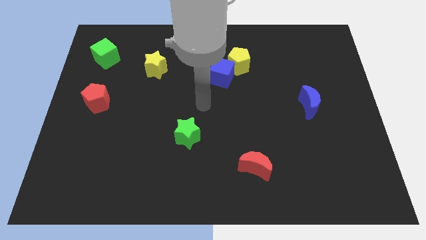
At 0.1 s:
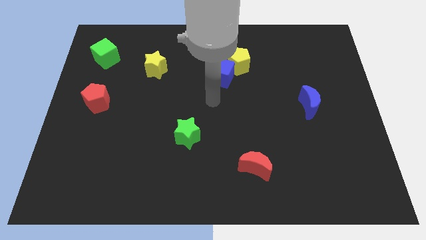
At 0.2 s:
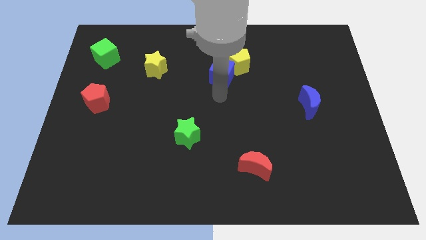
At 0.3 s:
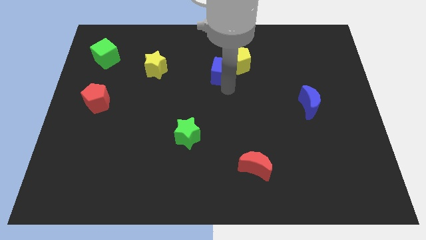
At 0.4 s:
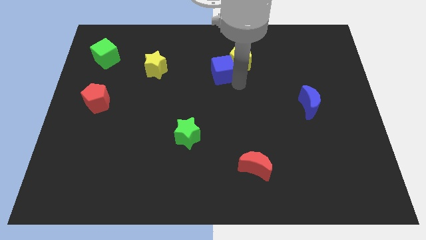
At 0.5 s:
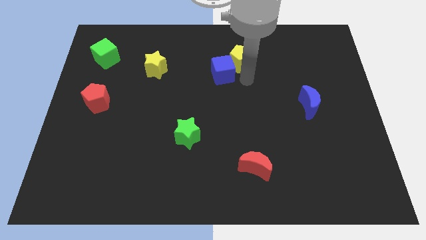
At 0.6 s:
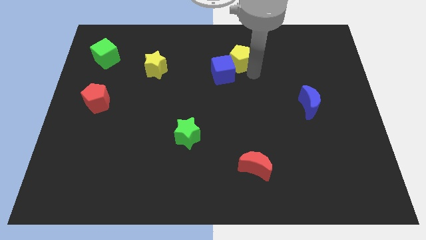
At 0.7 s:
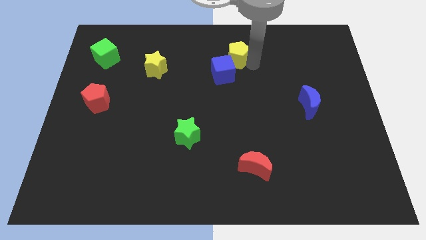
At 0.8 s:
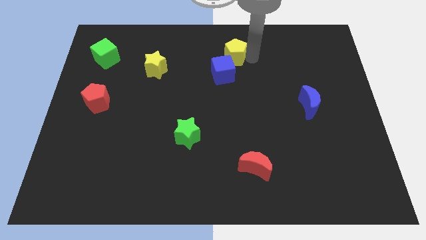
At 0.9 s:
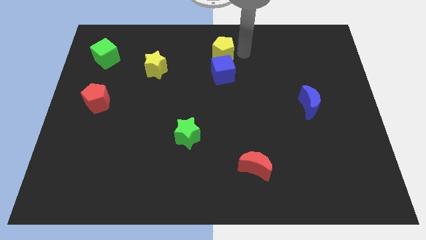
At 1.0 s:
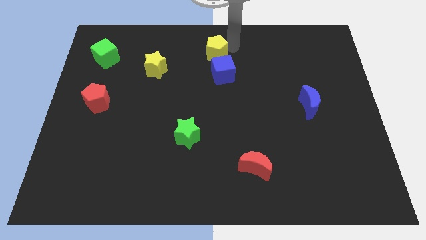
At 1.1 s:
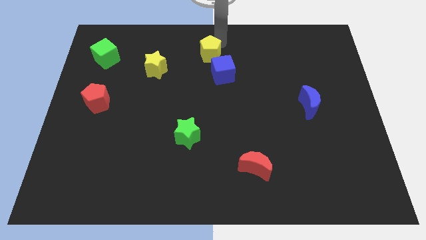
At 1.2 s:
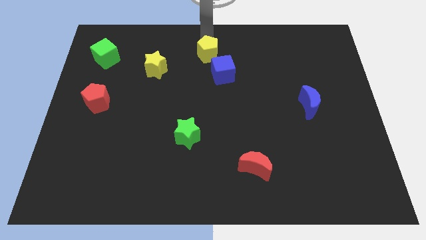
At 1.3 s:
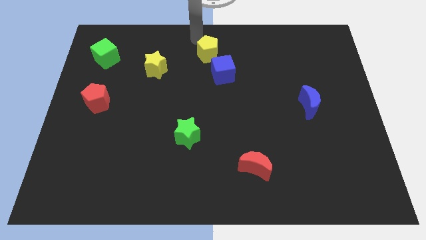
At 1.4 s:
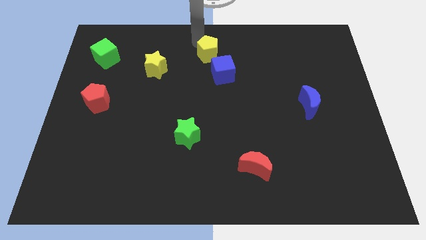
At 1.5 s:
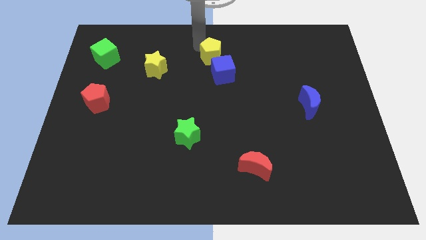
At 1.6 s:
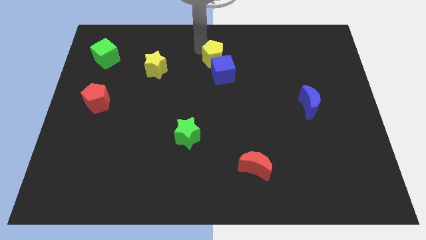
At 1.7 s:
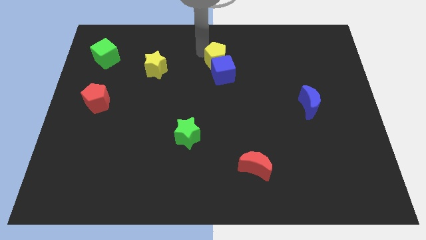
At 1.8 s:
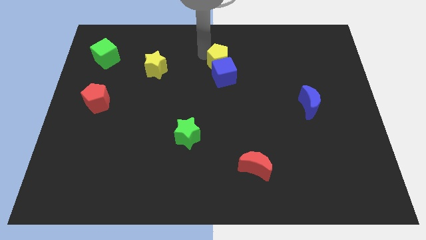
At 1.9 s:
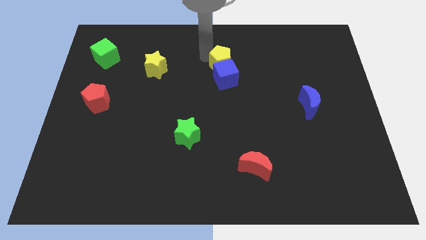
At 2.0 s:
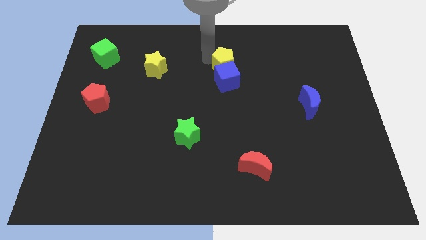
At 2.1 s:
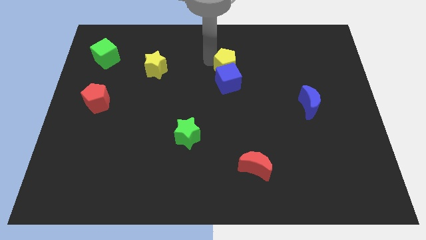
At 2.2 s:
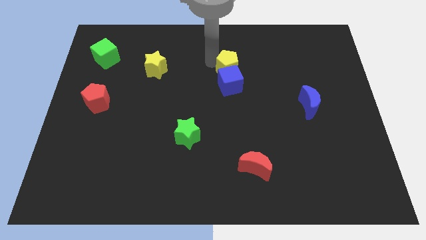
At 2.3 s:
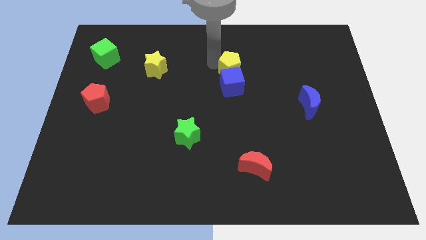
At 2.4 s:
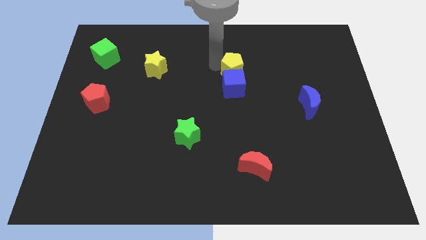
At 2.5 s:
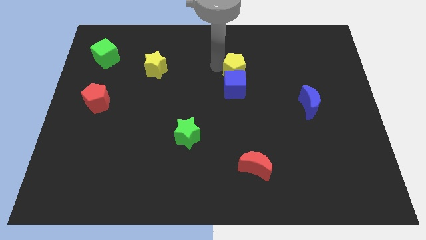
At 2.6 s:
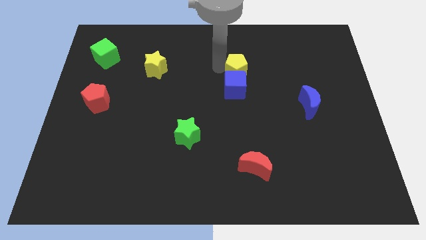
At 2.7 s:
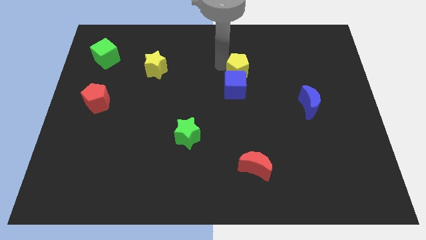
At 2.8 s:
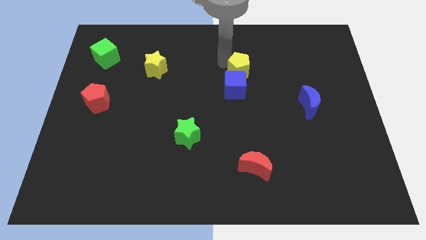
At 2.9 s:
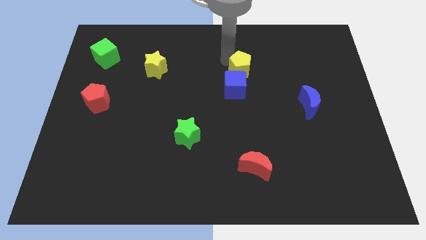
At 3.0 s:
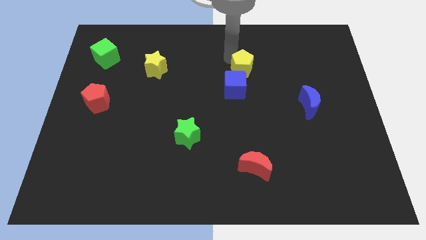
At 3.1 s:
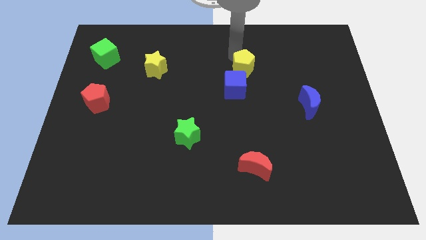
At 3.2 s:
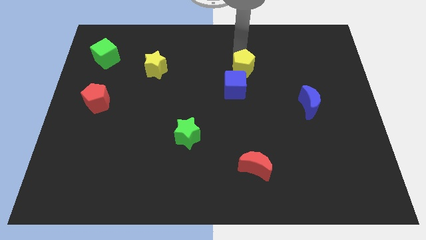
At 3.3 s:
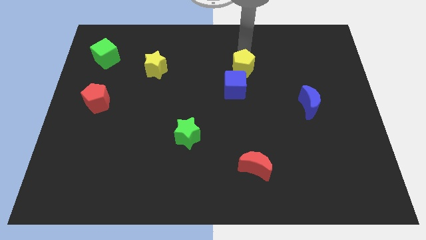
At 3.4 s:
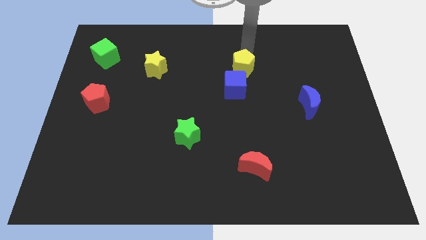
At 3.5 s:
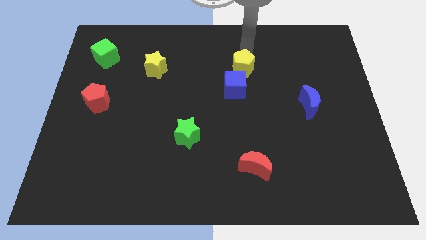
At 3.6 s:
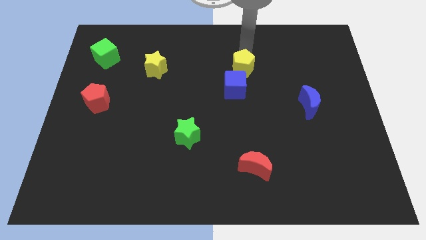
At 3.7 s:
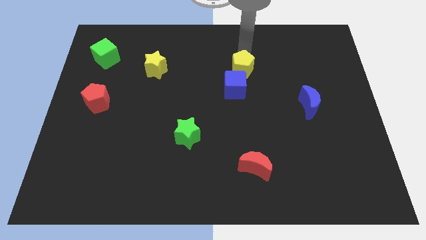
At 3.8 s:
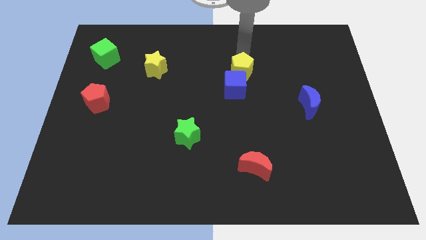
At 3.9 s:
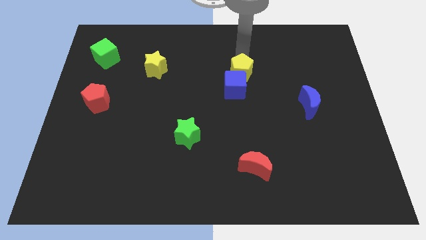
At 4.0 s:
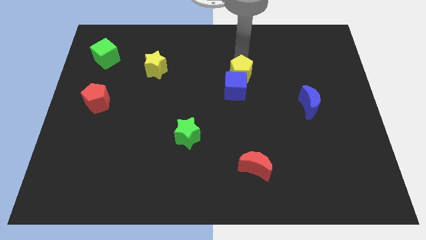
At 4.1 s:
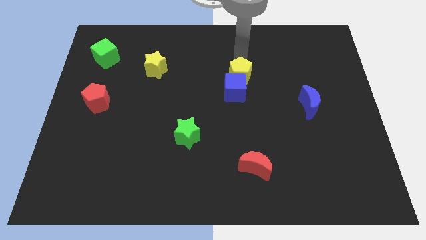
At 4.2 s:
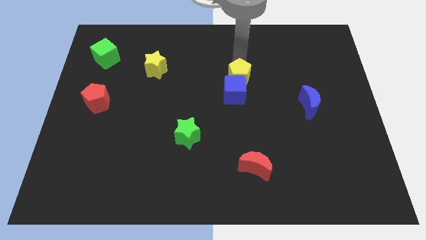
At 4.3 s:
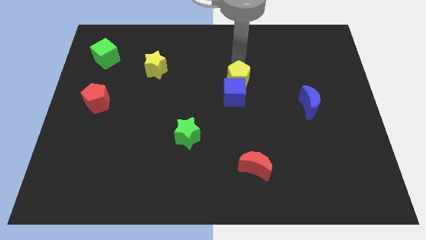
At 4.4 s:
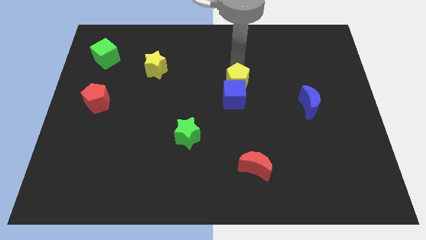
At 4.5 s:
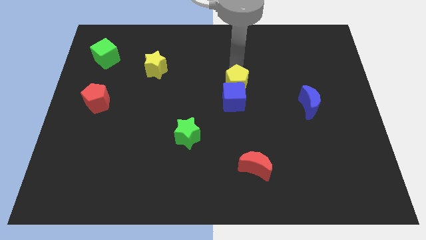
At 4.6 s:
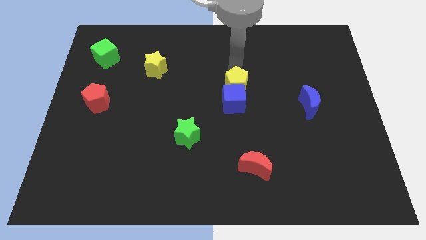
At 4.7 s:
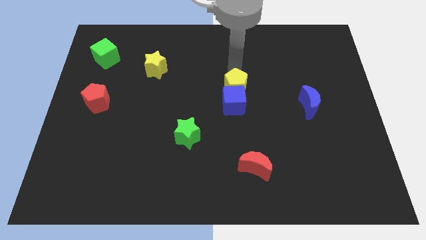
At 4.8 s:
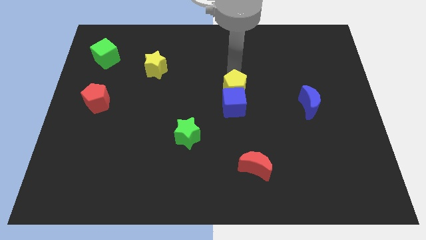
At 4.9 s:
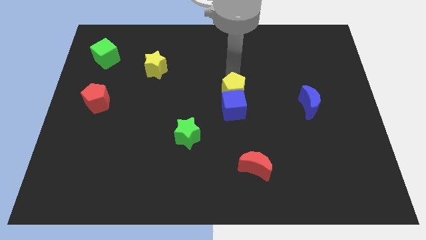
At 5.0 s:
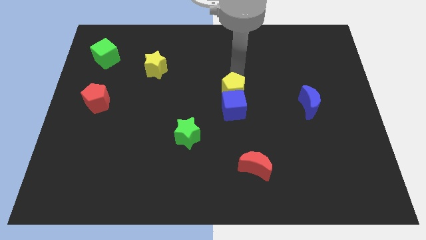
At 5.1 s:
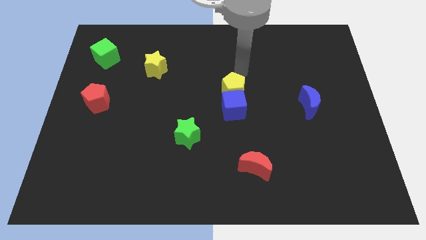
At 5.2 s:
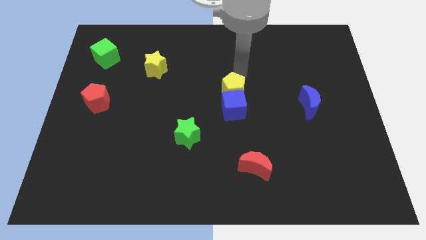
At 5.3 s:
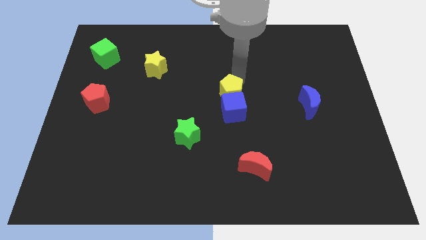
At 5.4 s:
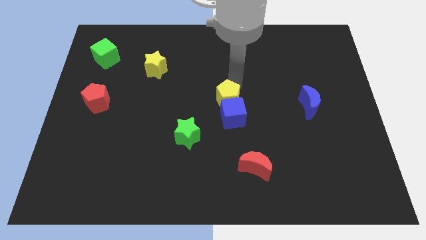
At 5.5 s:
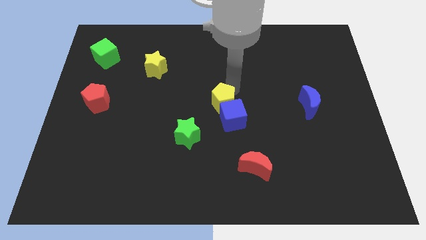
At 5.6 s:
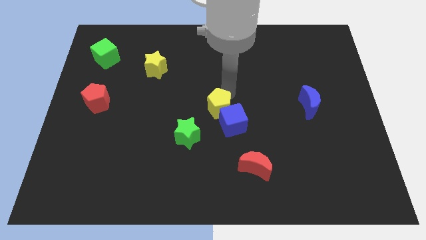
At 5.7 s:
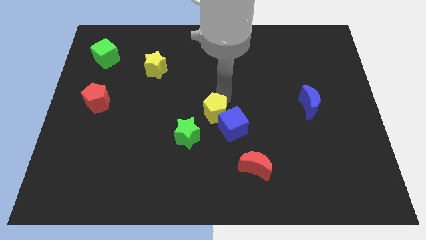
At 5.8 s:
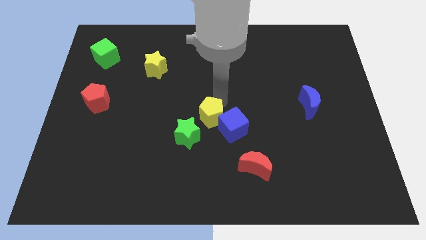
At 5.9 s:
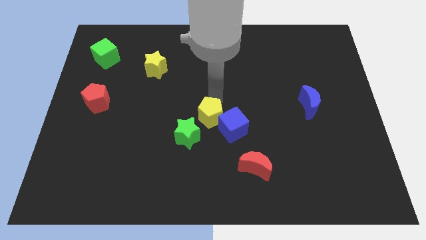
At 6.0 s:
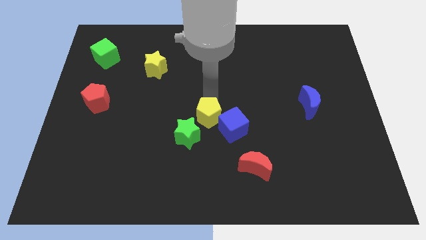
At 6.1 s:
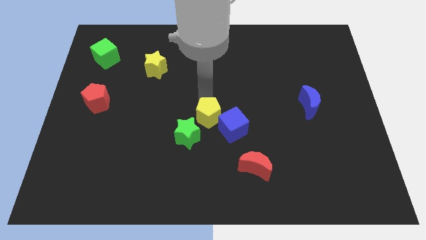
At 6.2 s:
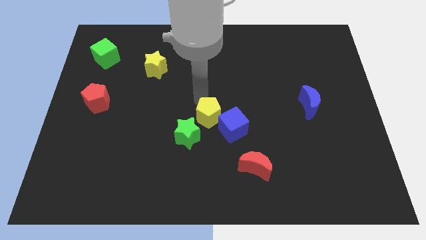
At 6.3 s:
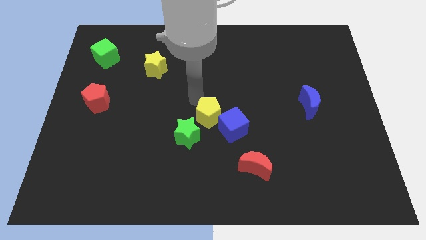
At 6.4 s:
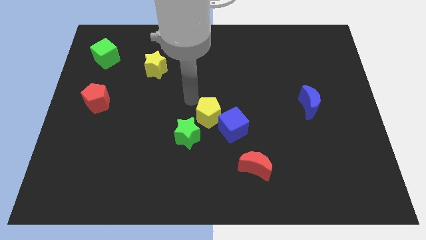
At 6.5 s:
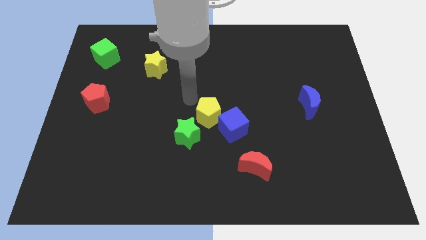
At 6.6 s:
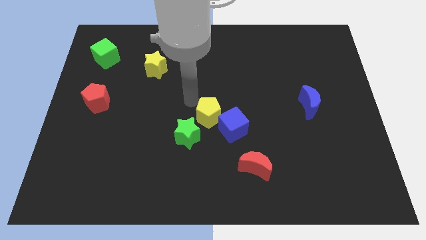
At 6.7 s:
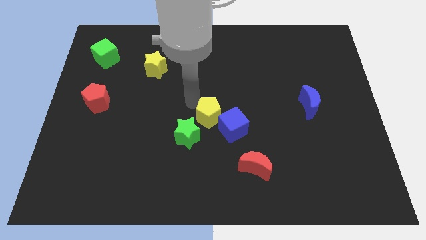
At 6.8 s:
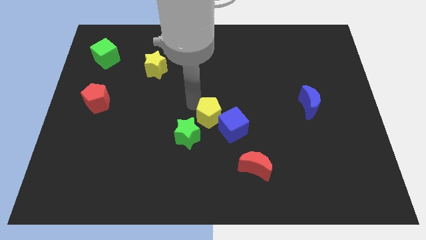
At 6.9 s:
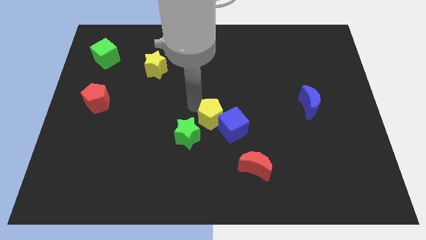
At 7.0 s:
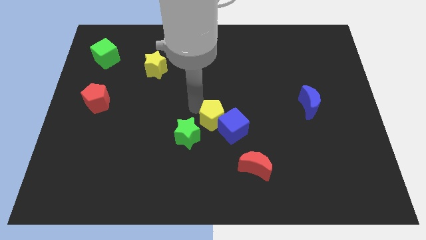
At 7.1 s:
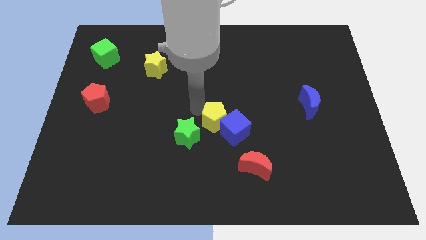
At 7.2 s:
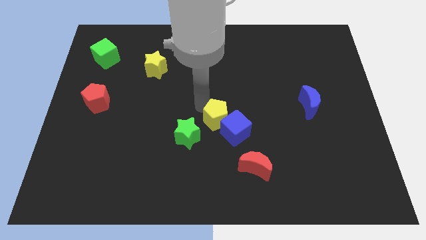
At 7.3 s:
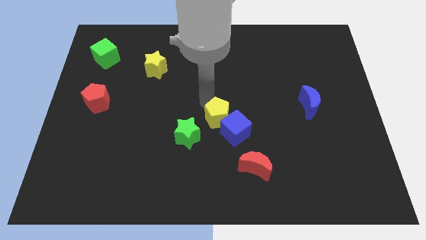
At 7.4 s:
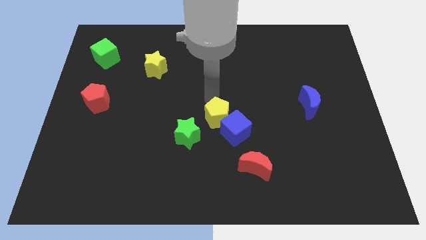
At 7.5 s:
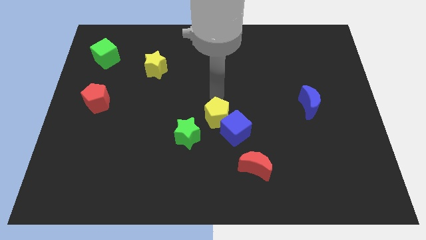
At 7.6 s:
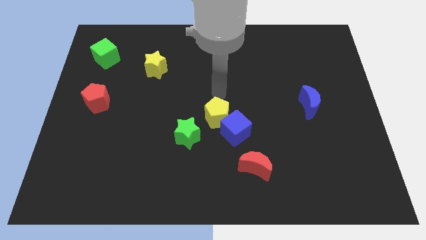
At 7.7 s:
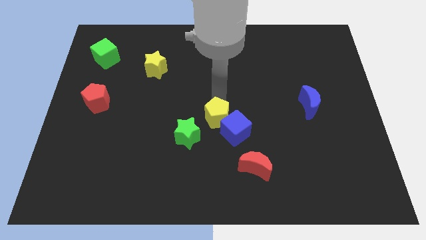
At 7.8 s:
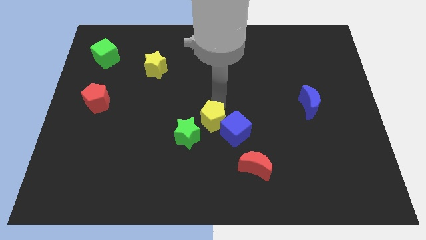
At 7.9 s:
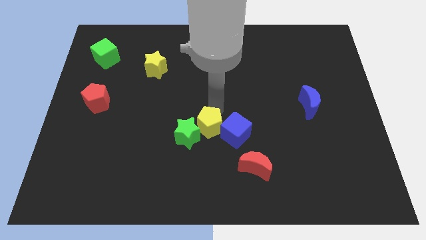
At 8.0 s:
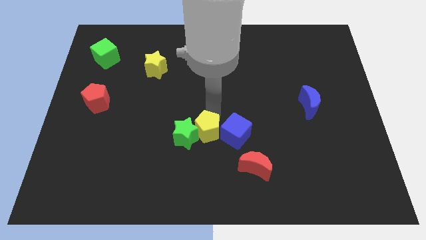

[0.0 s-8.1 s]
slide the yellow pentagon to the bottom right side of the green star
